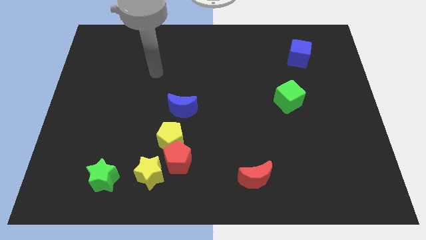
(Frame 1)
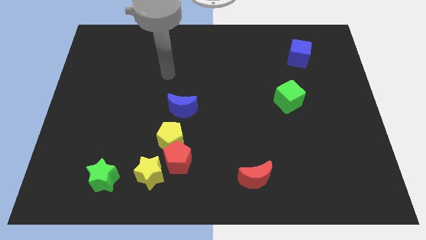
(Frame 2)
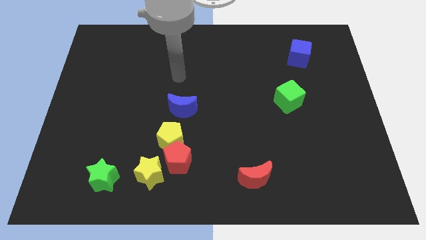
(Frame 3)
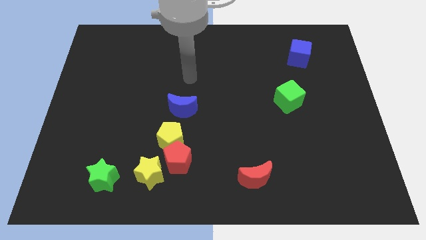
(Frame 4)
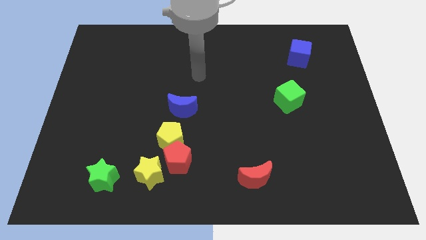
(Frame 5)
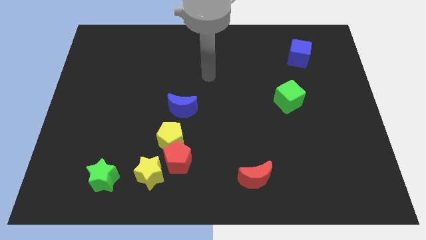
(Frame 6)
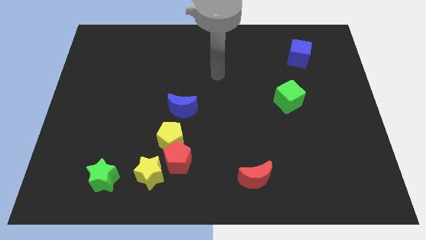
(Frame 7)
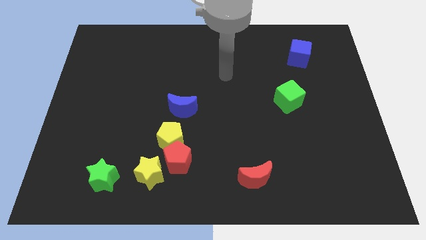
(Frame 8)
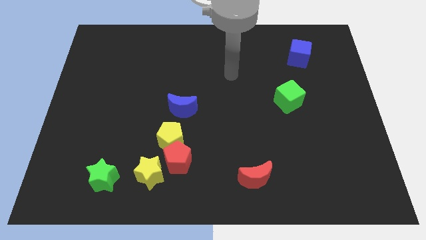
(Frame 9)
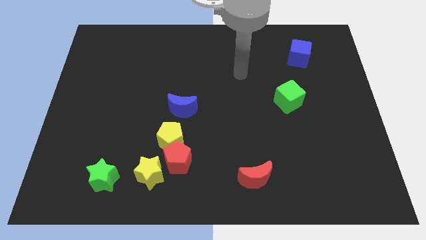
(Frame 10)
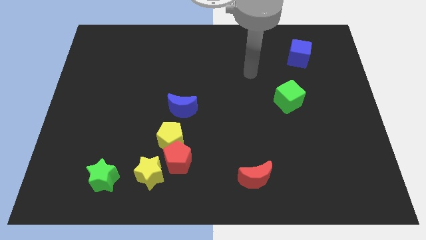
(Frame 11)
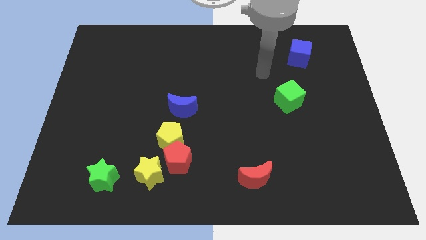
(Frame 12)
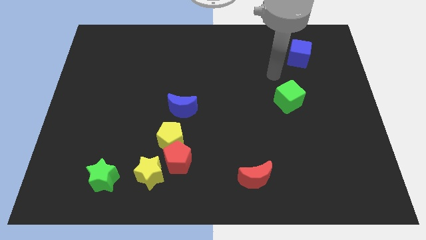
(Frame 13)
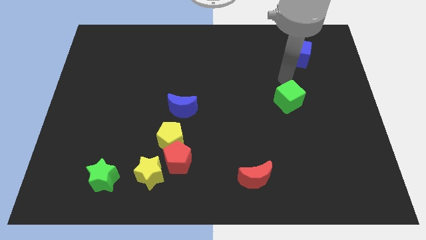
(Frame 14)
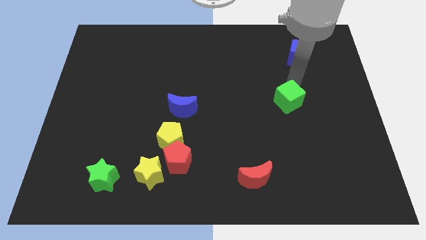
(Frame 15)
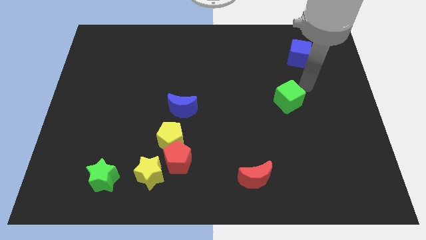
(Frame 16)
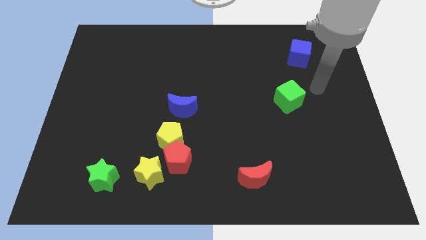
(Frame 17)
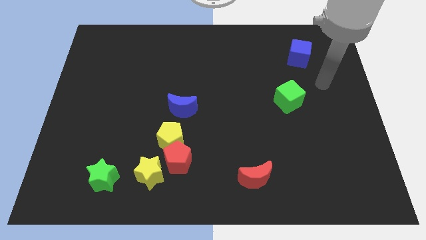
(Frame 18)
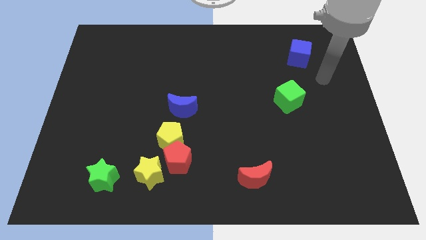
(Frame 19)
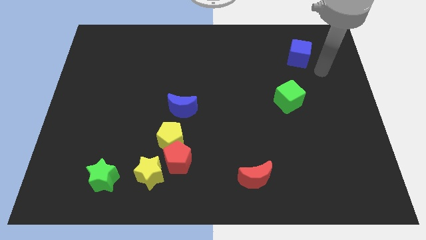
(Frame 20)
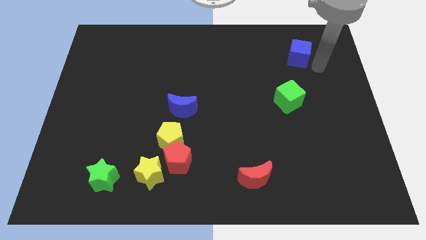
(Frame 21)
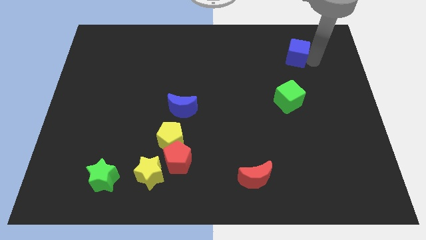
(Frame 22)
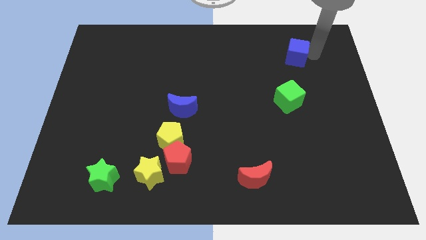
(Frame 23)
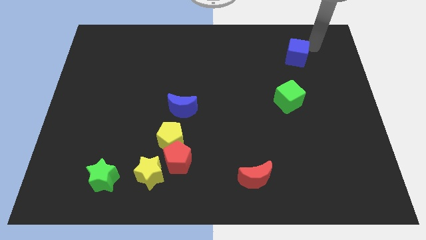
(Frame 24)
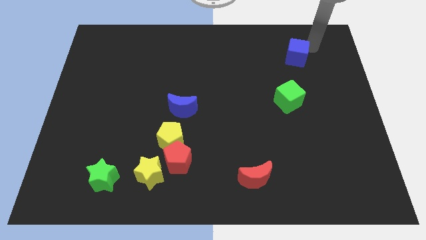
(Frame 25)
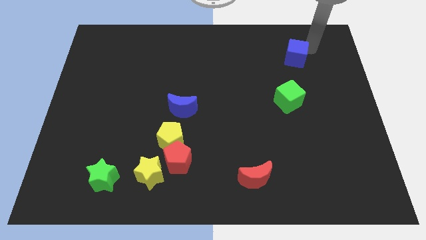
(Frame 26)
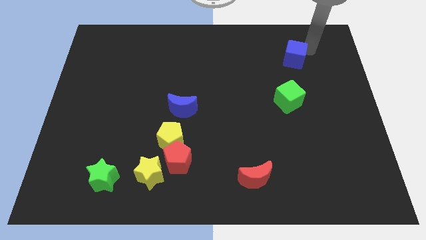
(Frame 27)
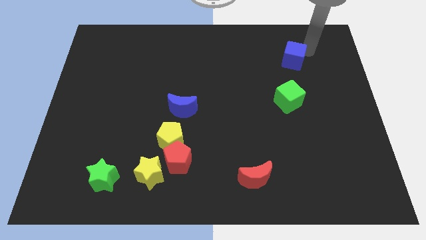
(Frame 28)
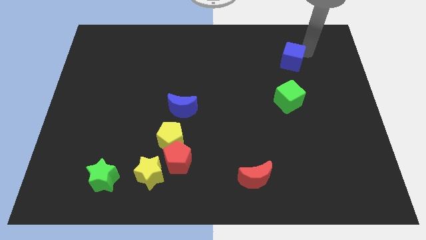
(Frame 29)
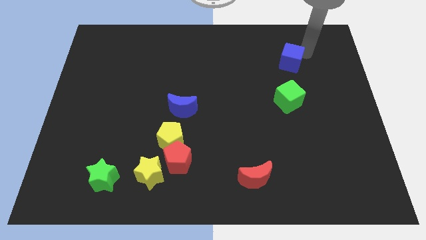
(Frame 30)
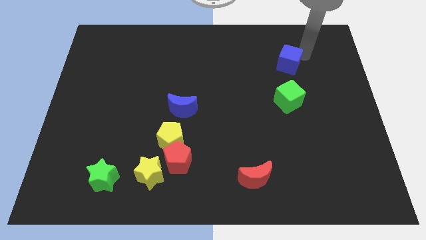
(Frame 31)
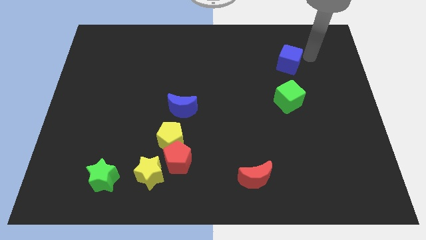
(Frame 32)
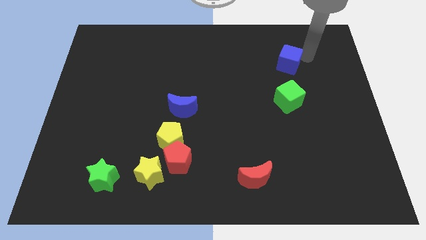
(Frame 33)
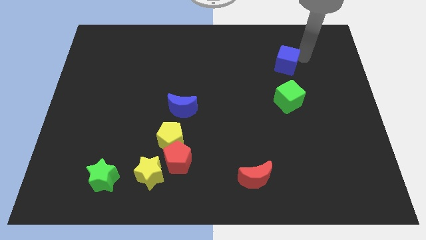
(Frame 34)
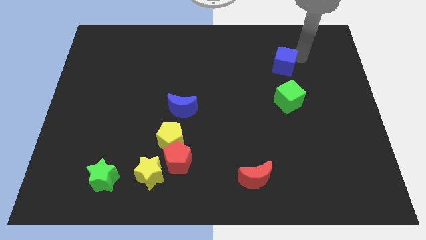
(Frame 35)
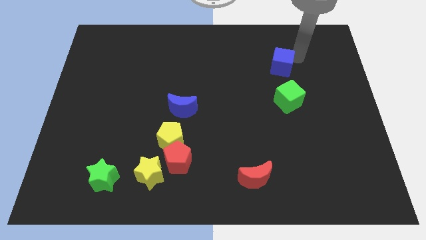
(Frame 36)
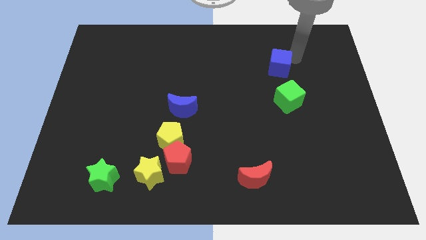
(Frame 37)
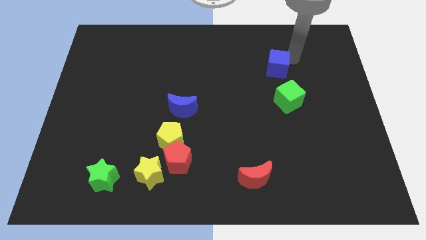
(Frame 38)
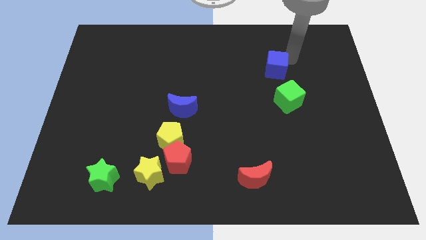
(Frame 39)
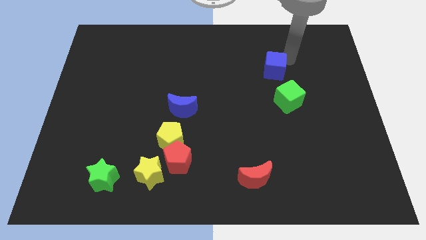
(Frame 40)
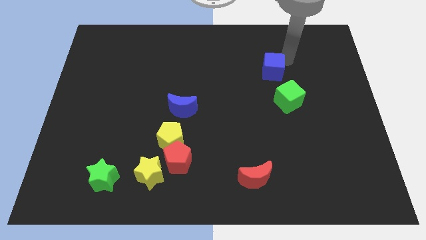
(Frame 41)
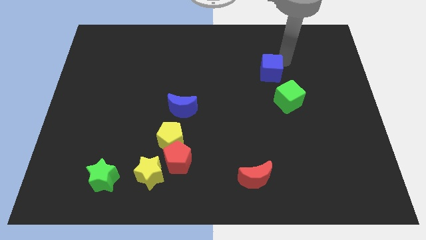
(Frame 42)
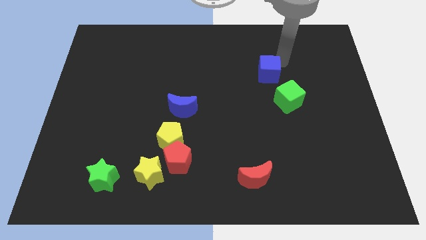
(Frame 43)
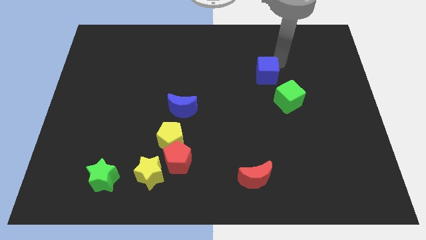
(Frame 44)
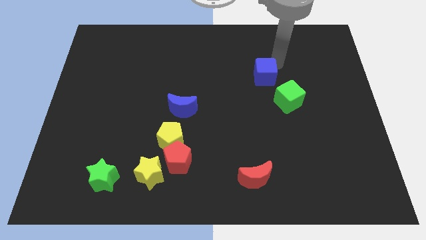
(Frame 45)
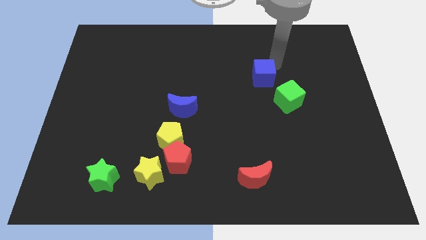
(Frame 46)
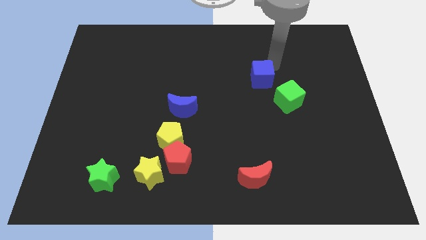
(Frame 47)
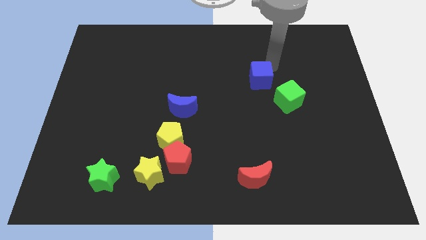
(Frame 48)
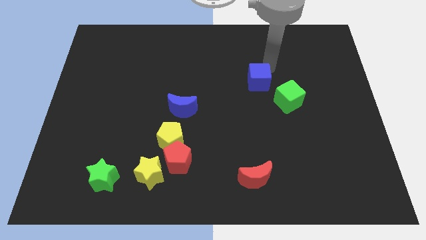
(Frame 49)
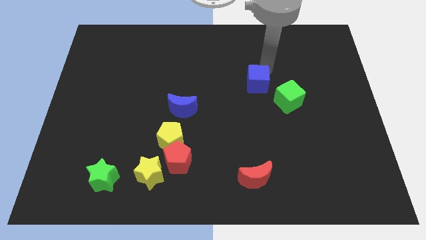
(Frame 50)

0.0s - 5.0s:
push the blue cube to the center

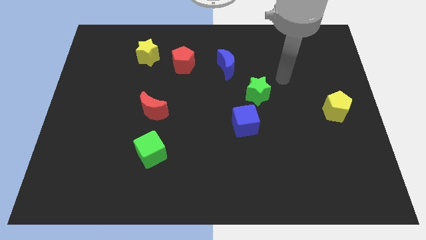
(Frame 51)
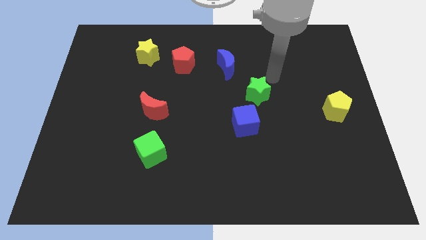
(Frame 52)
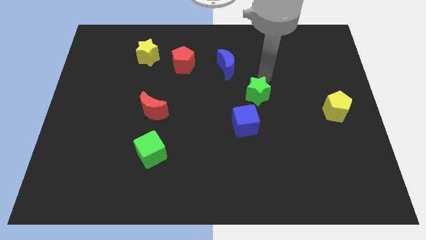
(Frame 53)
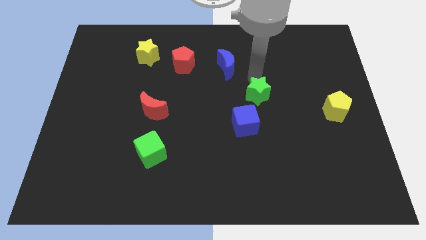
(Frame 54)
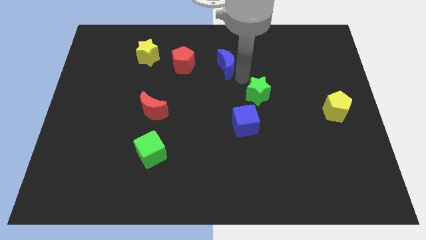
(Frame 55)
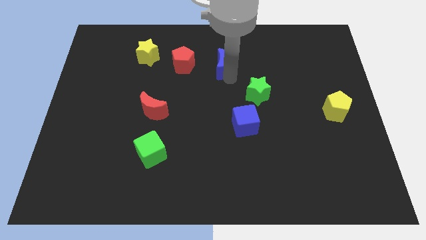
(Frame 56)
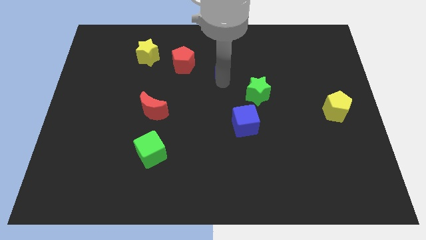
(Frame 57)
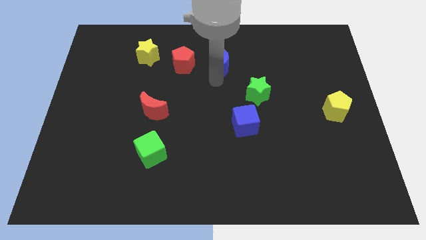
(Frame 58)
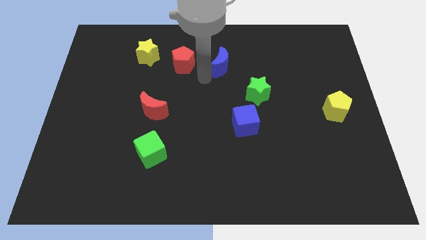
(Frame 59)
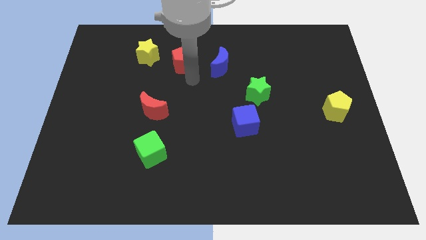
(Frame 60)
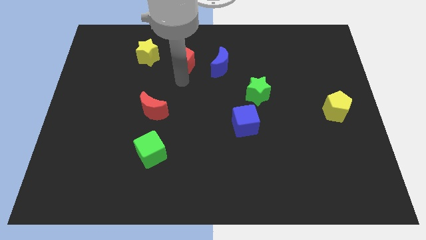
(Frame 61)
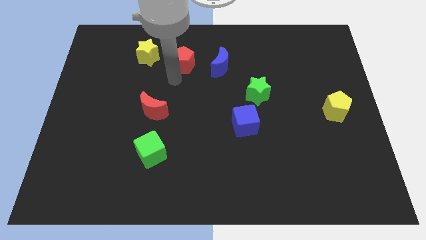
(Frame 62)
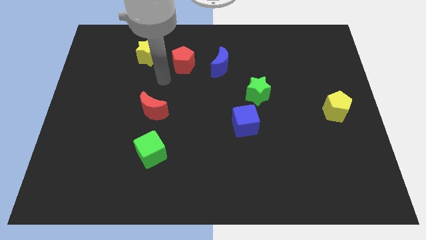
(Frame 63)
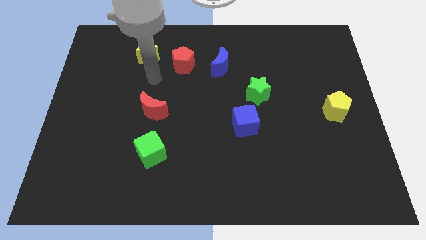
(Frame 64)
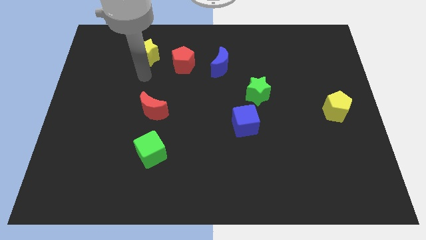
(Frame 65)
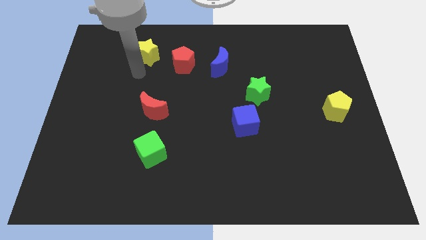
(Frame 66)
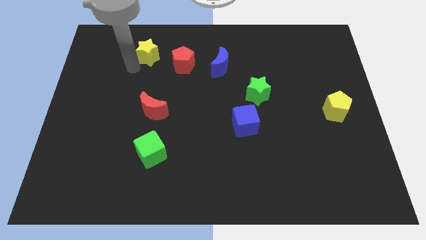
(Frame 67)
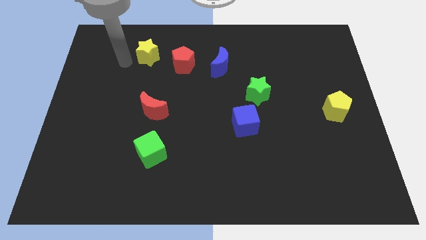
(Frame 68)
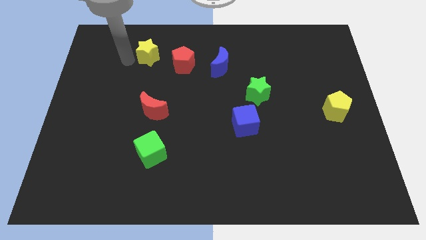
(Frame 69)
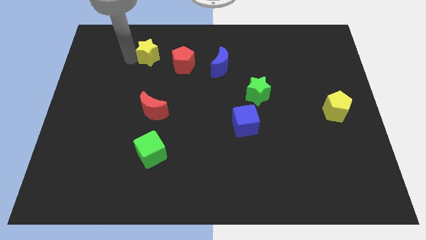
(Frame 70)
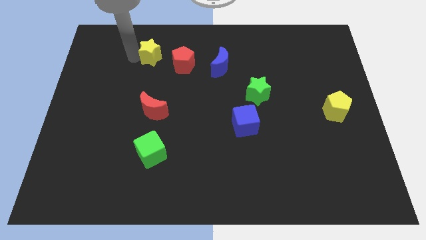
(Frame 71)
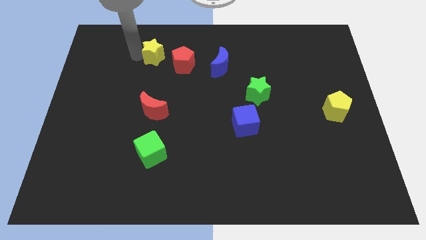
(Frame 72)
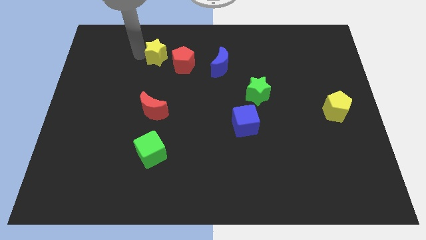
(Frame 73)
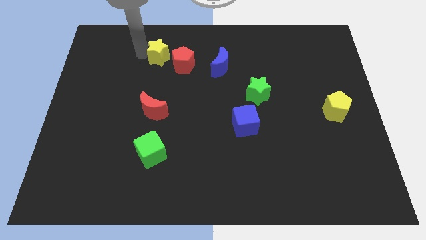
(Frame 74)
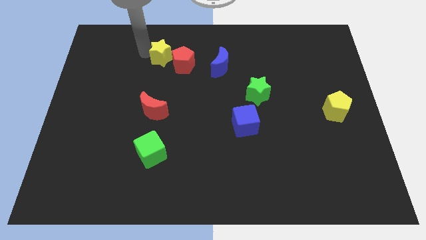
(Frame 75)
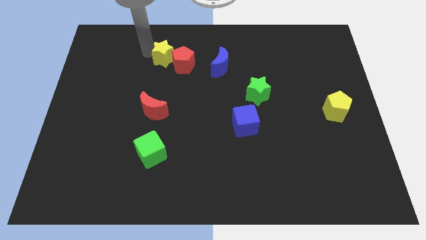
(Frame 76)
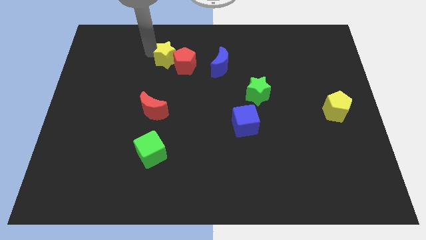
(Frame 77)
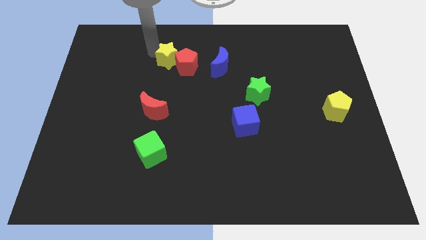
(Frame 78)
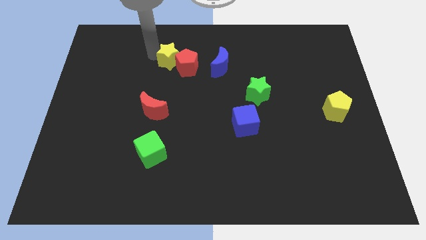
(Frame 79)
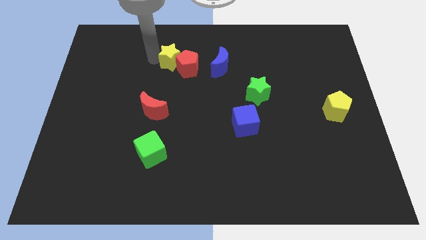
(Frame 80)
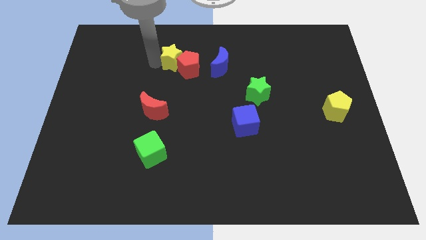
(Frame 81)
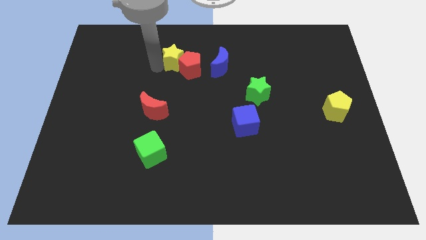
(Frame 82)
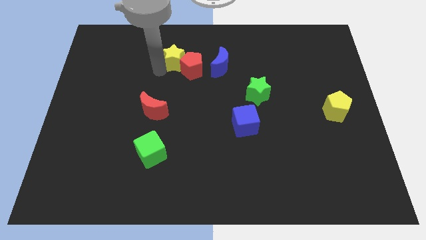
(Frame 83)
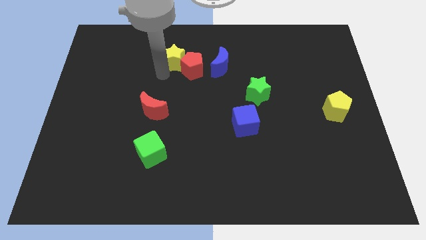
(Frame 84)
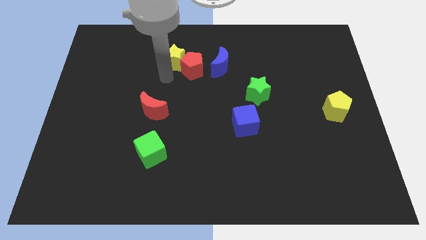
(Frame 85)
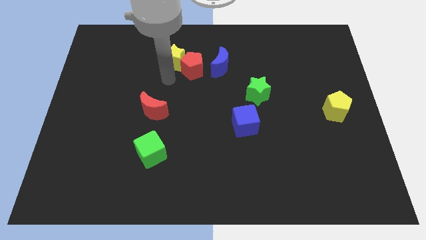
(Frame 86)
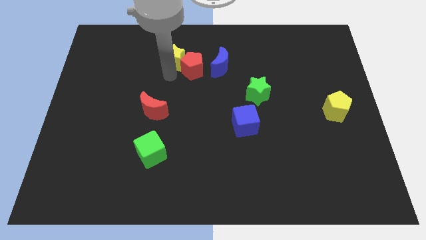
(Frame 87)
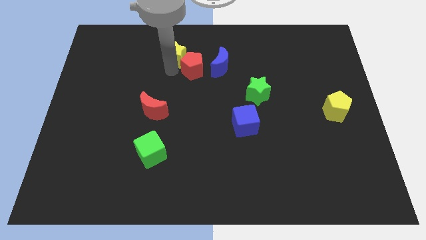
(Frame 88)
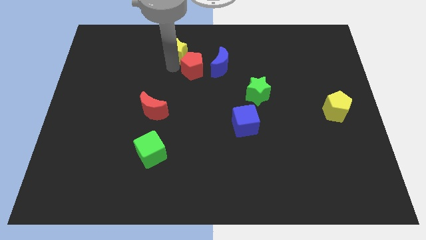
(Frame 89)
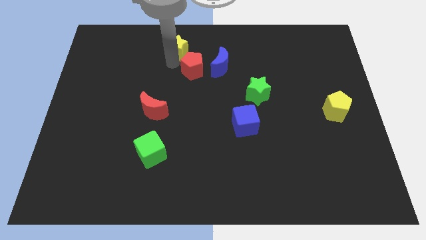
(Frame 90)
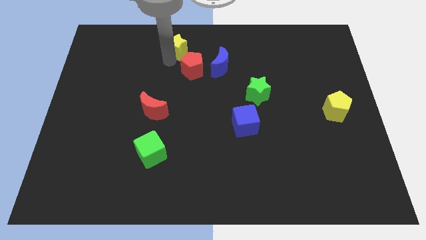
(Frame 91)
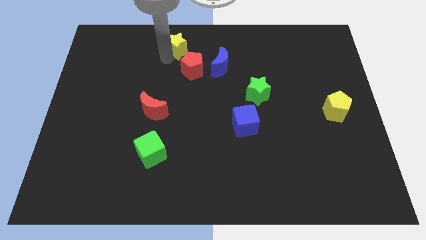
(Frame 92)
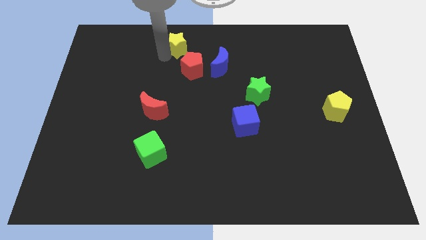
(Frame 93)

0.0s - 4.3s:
slide the yellow star to the top side
